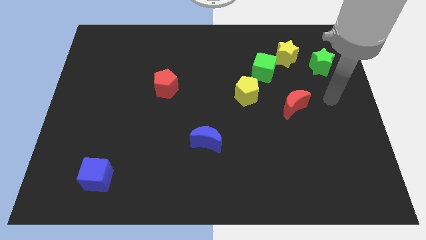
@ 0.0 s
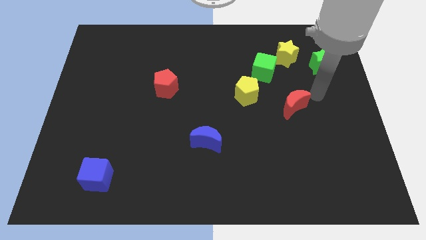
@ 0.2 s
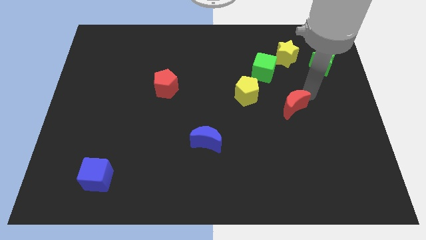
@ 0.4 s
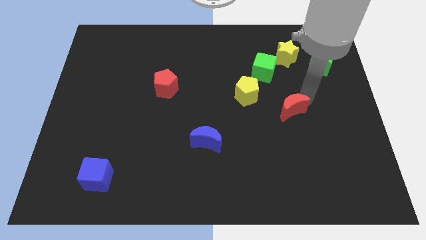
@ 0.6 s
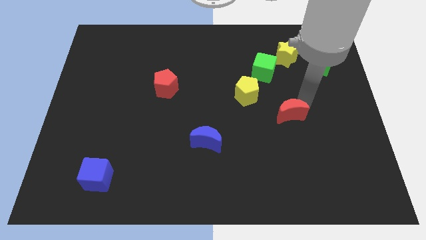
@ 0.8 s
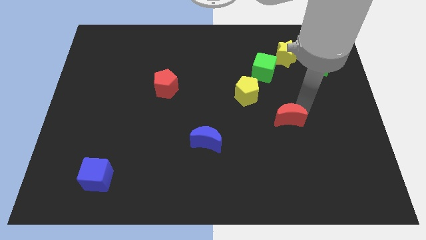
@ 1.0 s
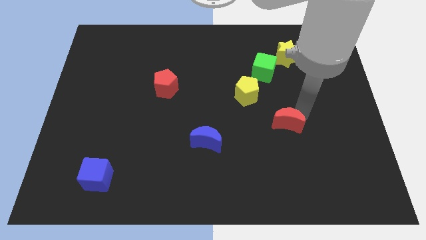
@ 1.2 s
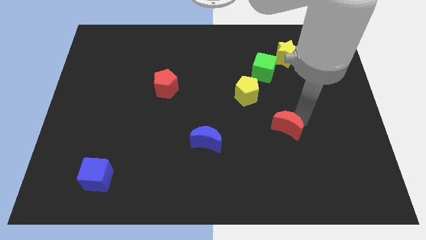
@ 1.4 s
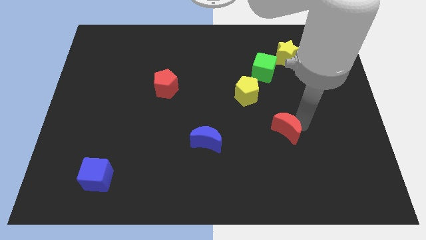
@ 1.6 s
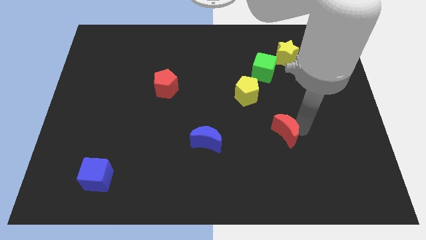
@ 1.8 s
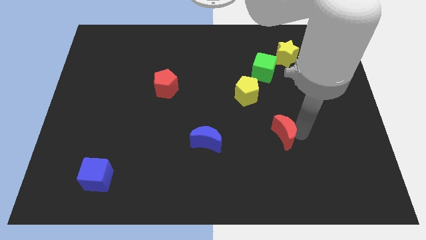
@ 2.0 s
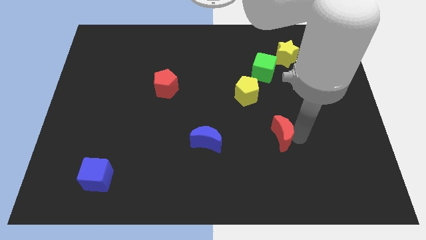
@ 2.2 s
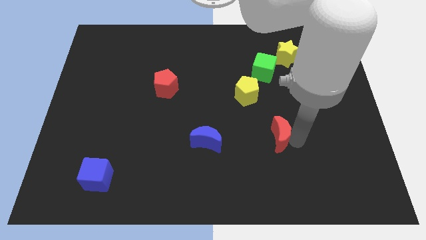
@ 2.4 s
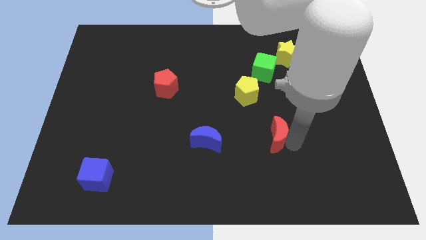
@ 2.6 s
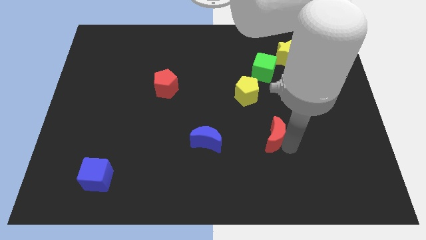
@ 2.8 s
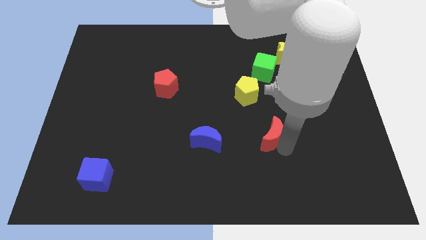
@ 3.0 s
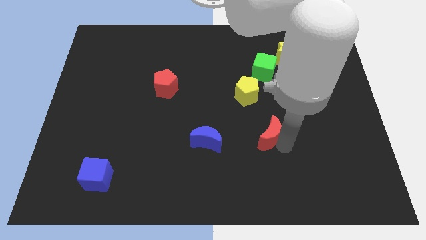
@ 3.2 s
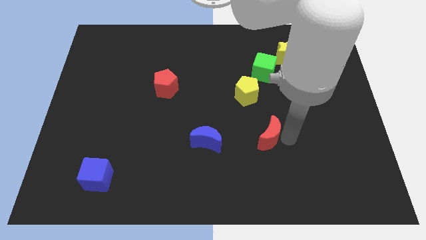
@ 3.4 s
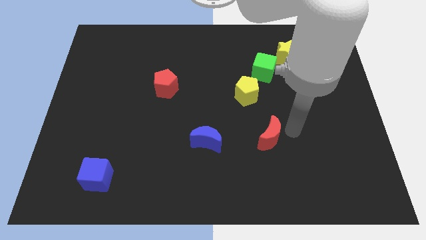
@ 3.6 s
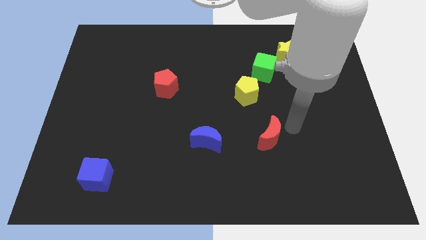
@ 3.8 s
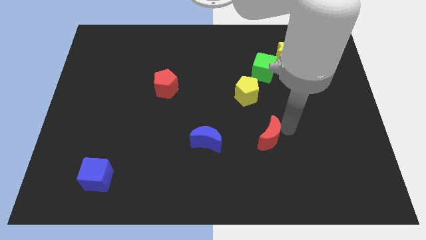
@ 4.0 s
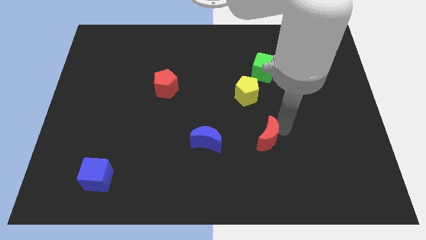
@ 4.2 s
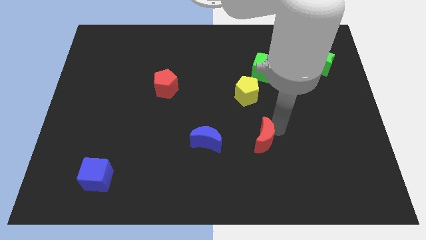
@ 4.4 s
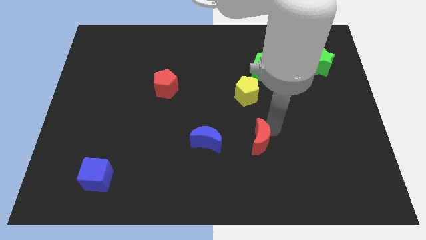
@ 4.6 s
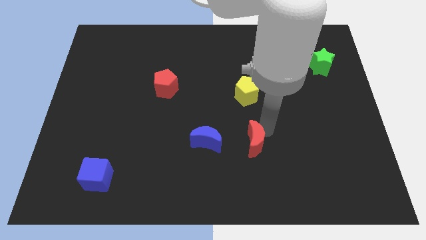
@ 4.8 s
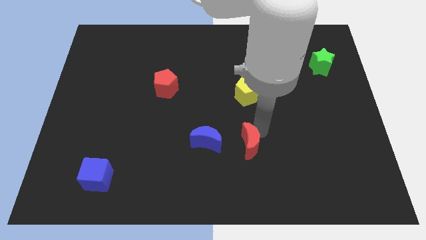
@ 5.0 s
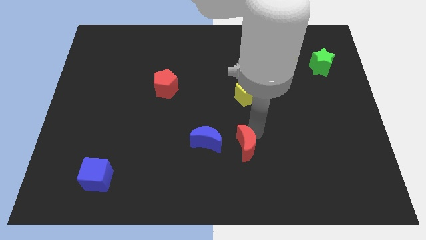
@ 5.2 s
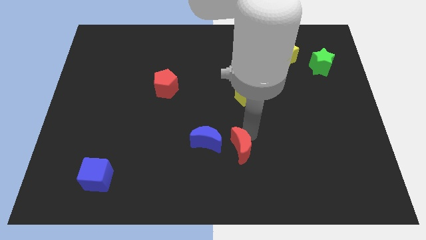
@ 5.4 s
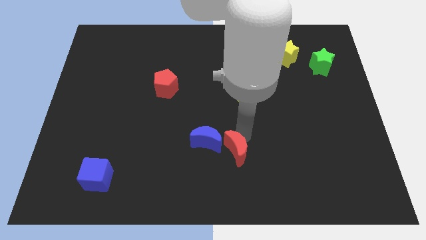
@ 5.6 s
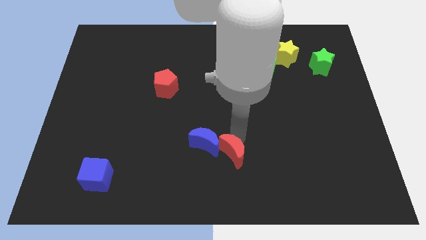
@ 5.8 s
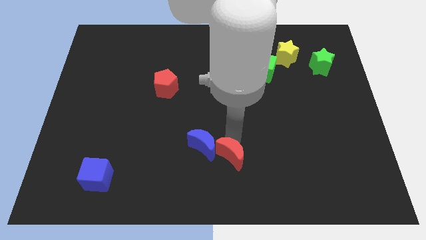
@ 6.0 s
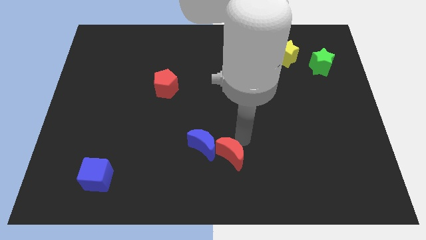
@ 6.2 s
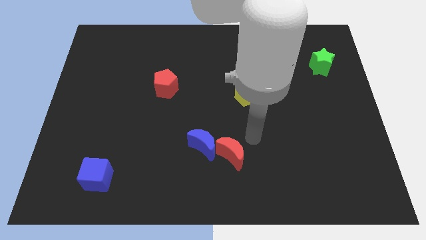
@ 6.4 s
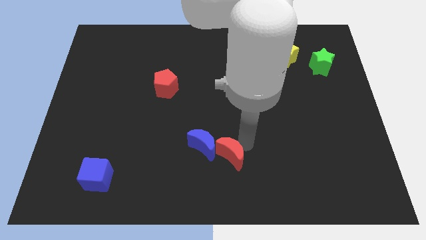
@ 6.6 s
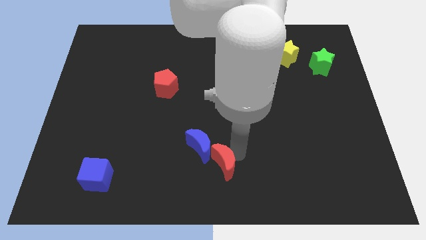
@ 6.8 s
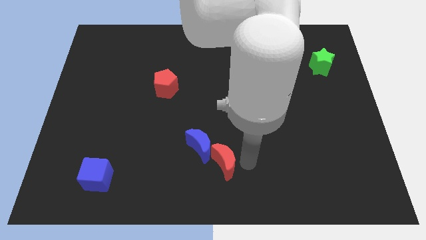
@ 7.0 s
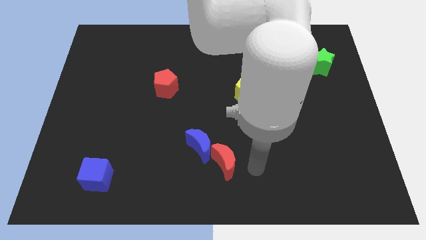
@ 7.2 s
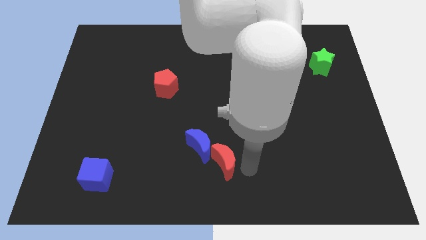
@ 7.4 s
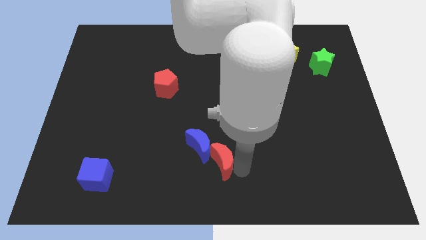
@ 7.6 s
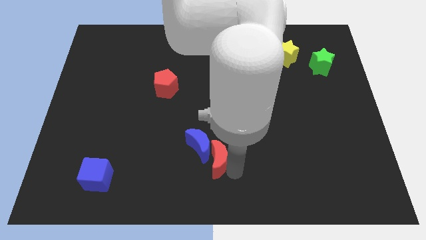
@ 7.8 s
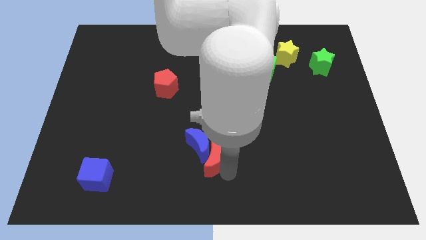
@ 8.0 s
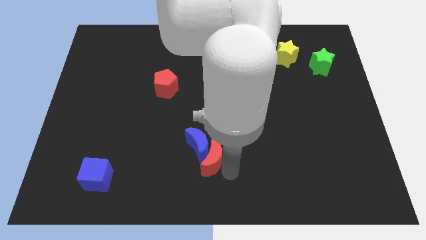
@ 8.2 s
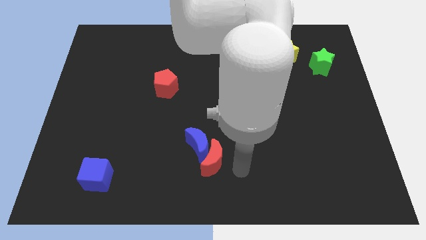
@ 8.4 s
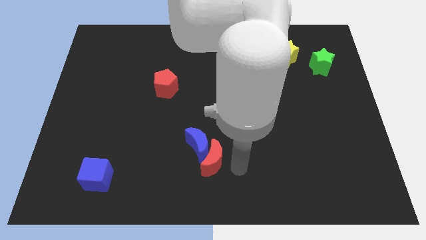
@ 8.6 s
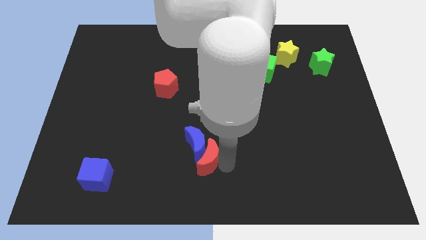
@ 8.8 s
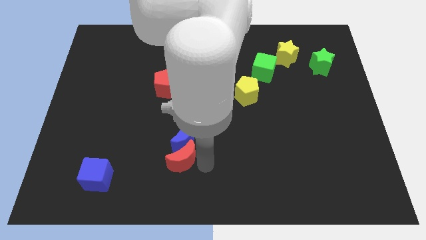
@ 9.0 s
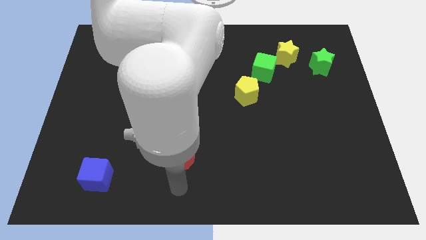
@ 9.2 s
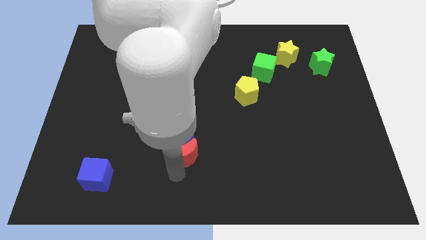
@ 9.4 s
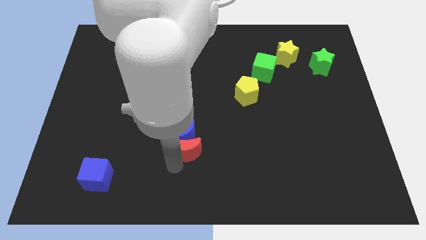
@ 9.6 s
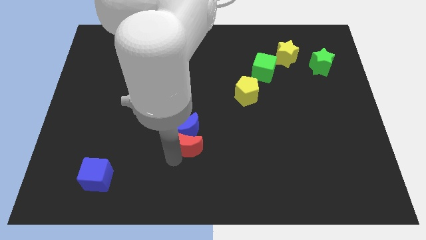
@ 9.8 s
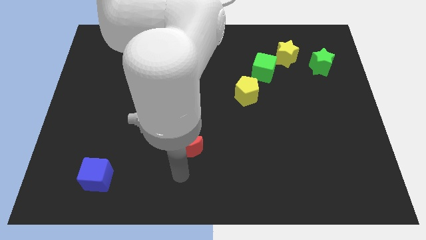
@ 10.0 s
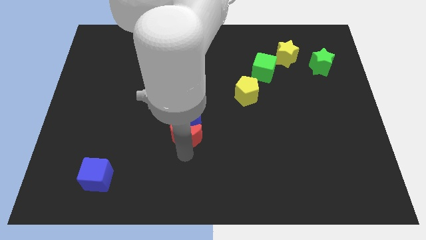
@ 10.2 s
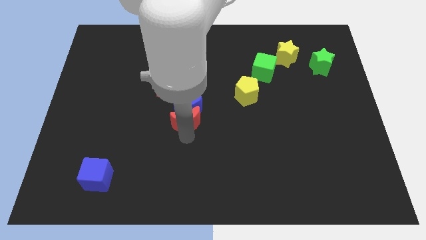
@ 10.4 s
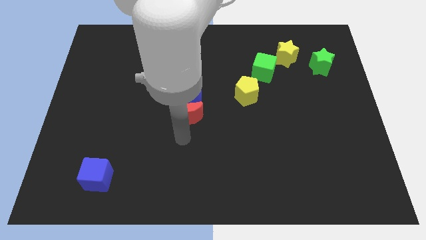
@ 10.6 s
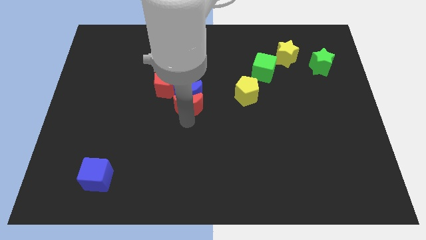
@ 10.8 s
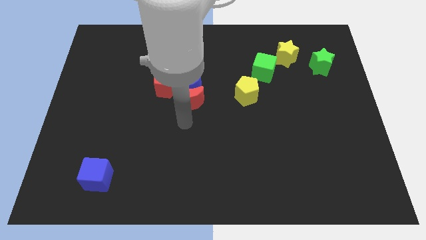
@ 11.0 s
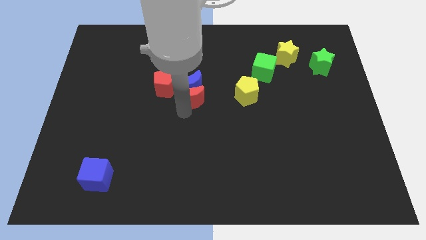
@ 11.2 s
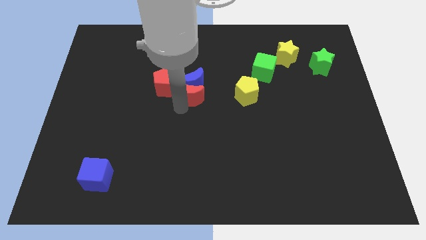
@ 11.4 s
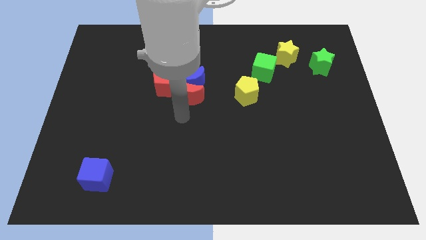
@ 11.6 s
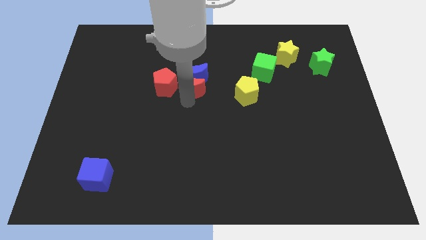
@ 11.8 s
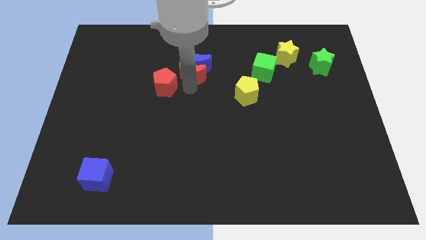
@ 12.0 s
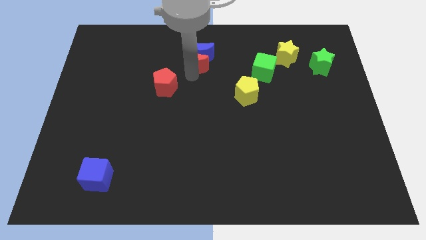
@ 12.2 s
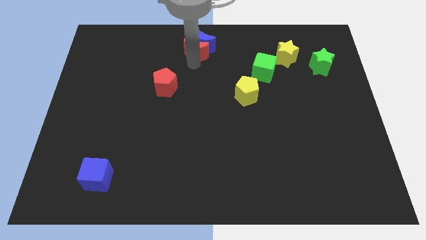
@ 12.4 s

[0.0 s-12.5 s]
slide the red moon to the towards your base

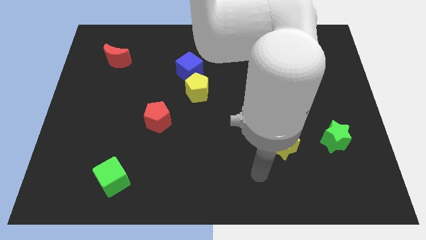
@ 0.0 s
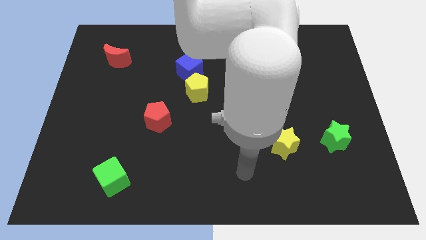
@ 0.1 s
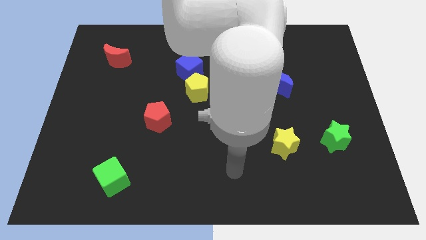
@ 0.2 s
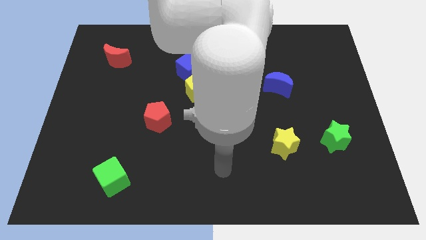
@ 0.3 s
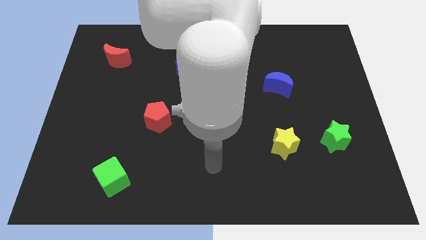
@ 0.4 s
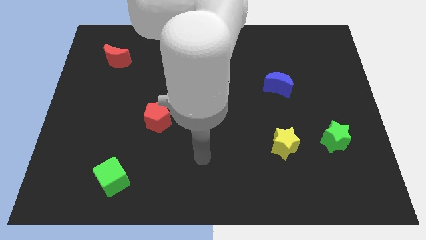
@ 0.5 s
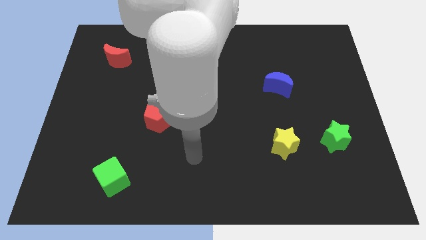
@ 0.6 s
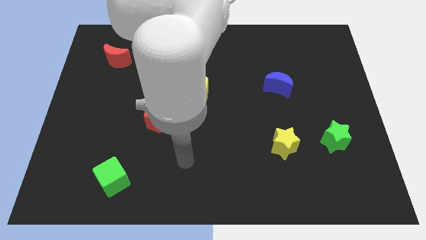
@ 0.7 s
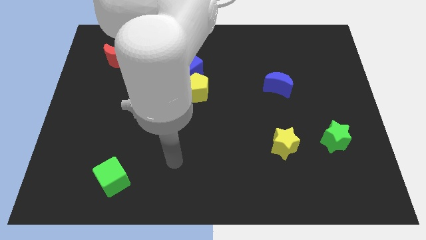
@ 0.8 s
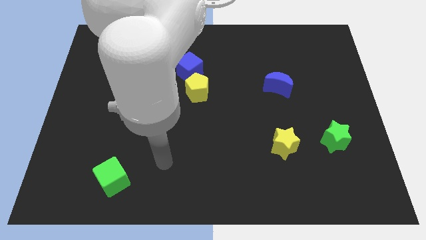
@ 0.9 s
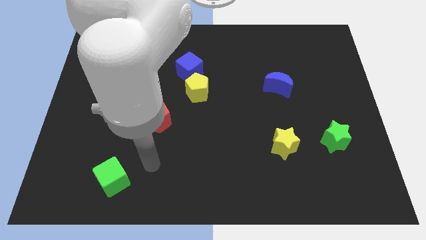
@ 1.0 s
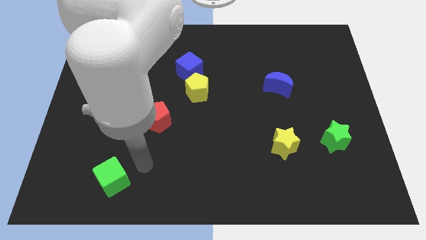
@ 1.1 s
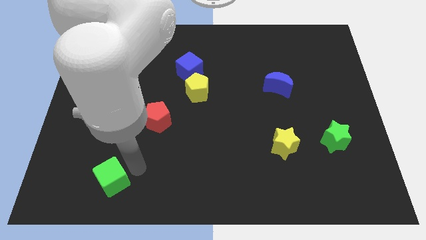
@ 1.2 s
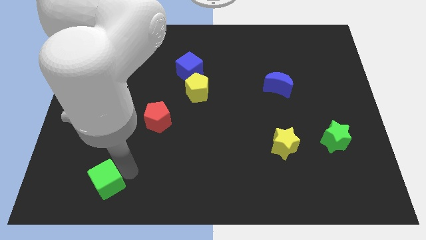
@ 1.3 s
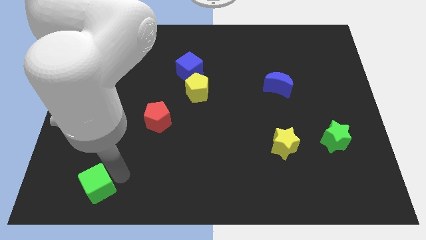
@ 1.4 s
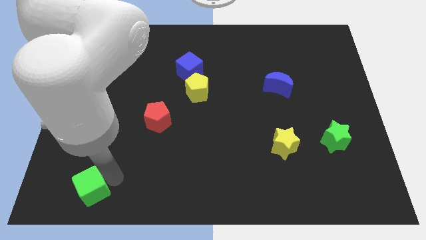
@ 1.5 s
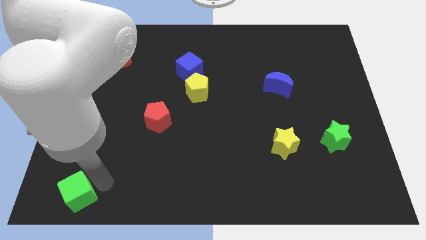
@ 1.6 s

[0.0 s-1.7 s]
push the green cube to the bottom left of the board
